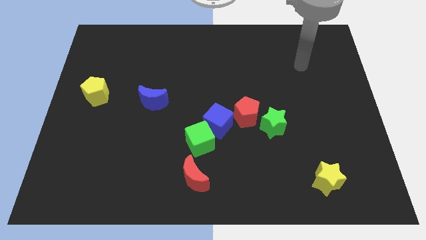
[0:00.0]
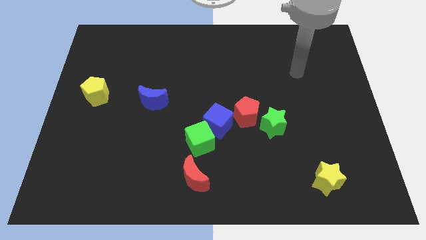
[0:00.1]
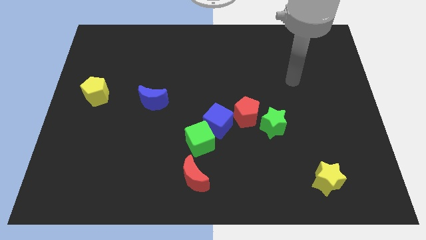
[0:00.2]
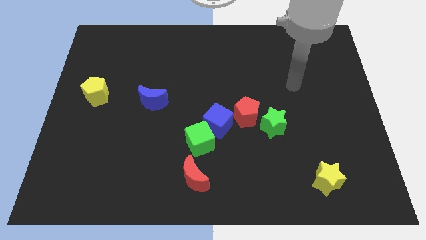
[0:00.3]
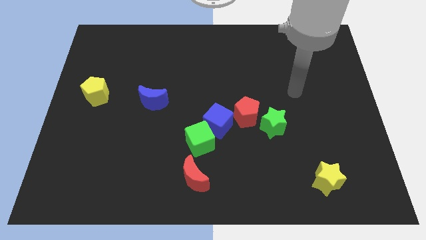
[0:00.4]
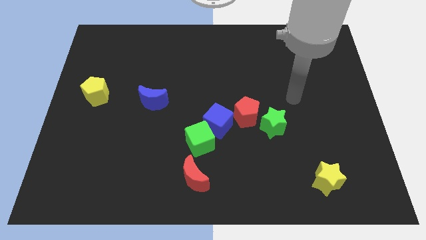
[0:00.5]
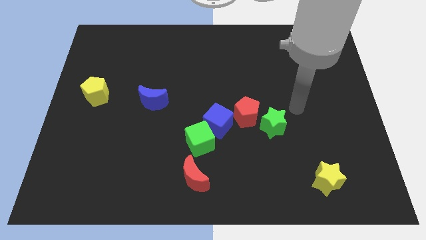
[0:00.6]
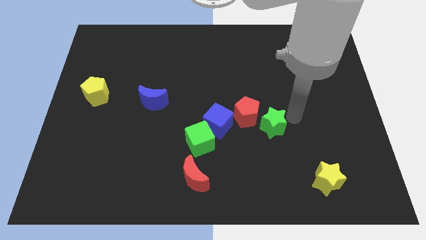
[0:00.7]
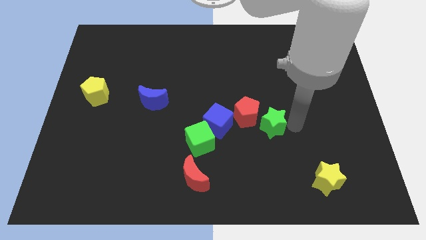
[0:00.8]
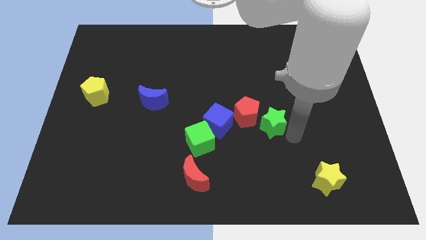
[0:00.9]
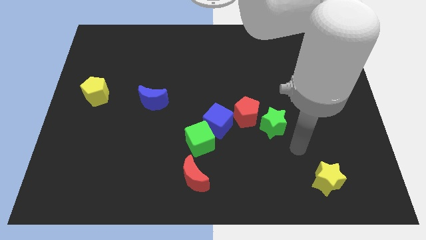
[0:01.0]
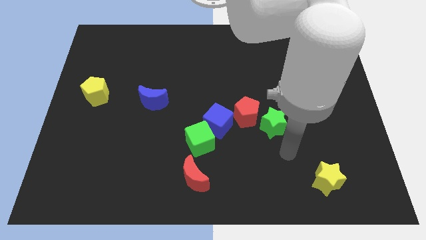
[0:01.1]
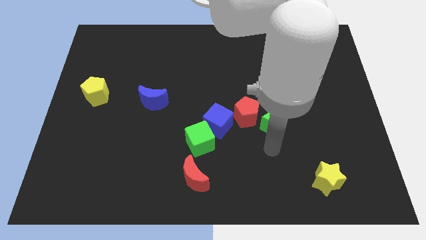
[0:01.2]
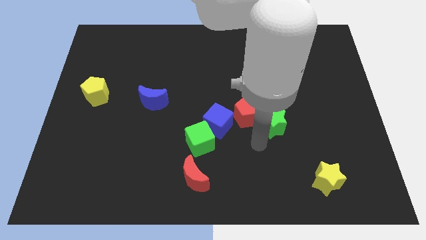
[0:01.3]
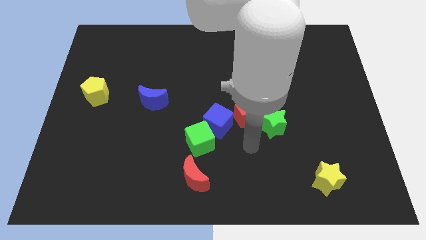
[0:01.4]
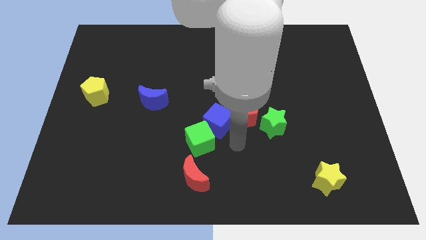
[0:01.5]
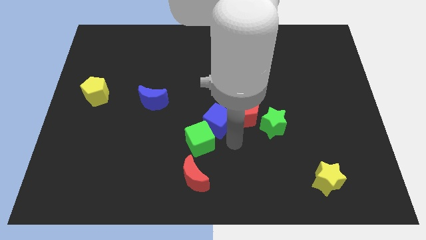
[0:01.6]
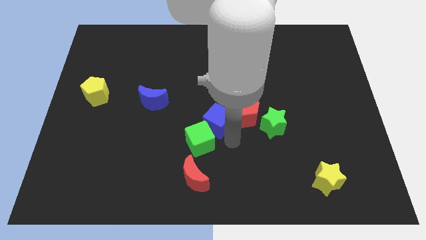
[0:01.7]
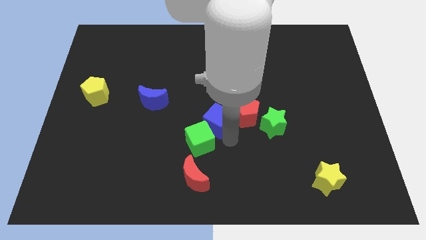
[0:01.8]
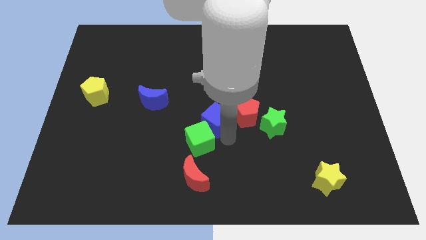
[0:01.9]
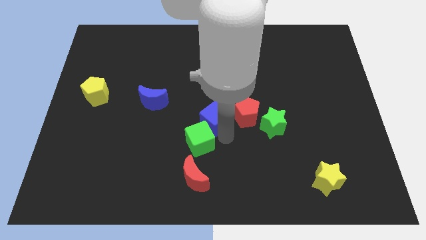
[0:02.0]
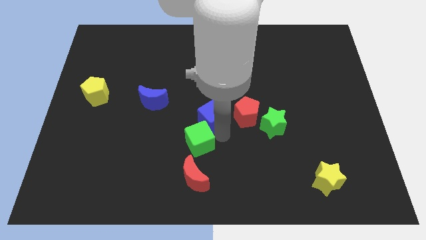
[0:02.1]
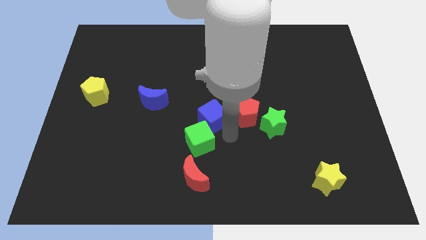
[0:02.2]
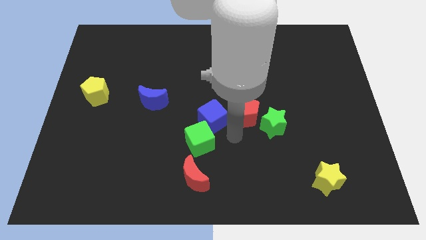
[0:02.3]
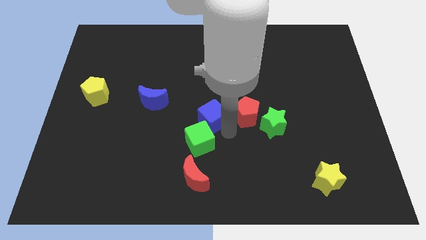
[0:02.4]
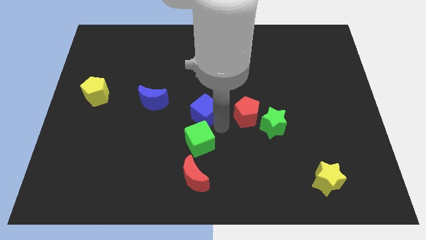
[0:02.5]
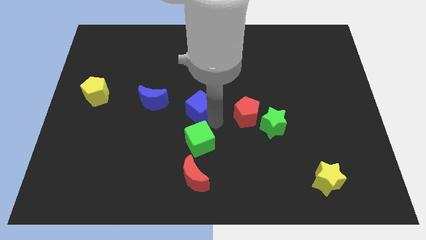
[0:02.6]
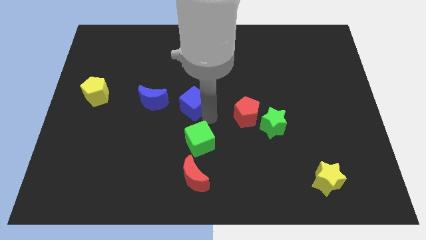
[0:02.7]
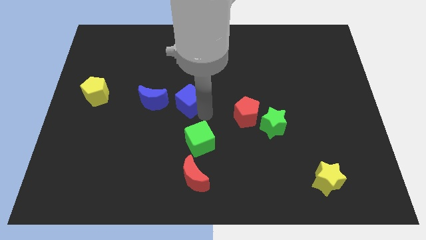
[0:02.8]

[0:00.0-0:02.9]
pull the blue cube apart from the green cube and red pentagon

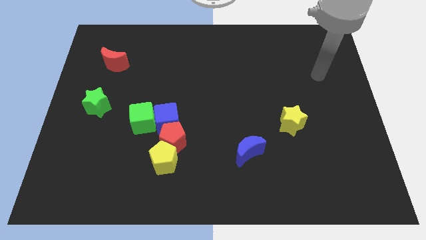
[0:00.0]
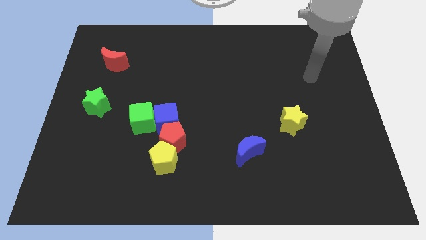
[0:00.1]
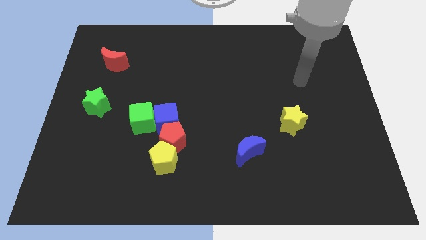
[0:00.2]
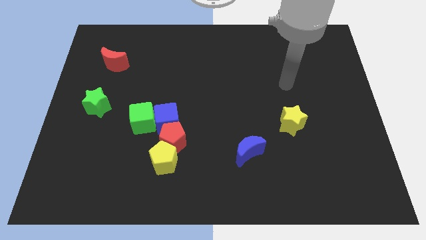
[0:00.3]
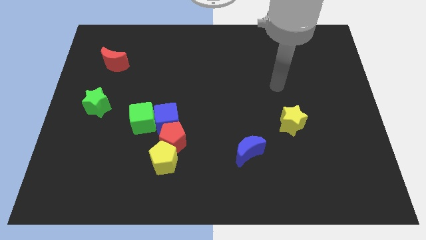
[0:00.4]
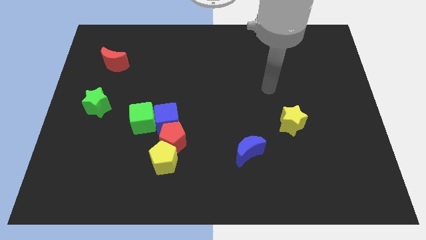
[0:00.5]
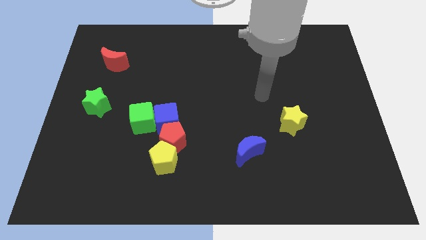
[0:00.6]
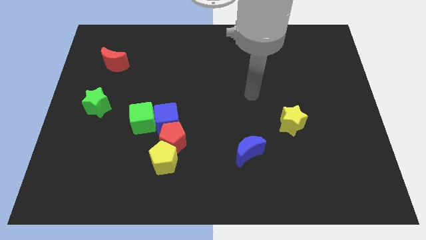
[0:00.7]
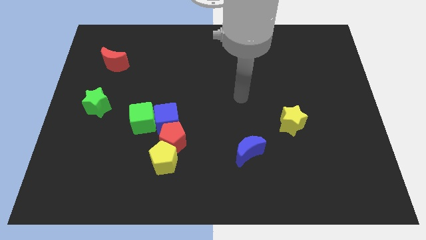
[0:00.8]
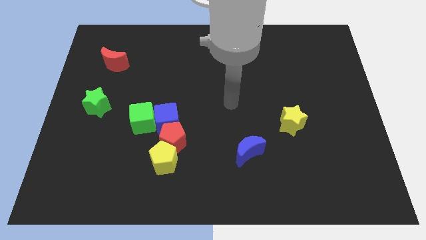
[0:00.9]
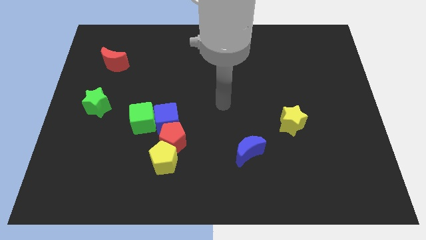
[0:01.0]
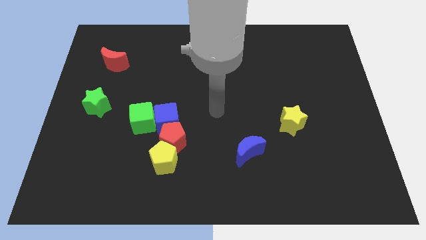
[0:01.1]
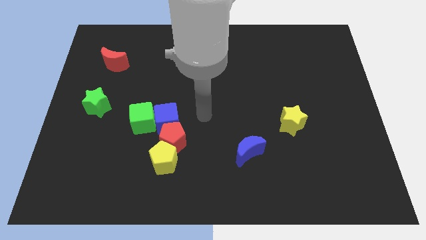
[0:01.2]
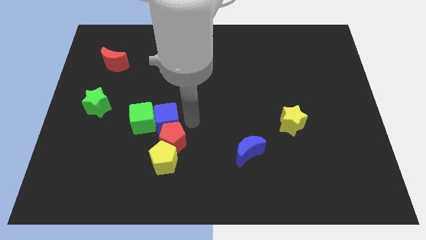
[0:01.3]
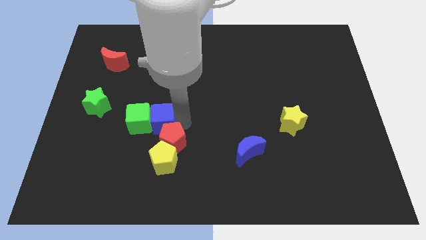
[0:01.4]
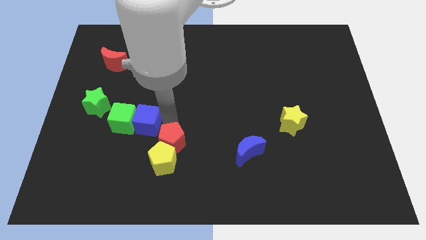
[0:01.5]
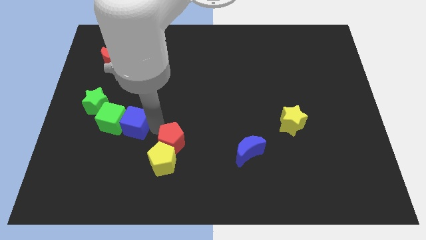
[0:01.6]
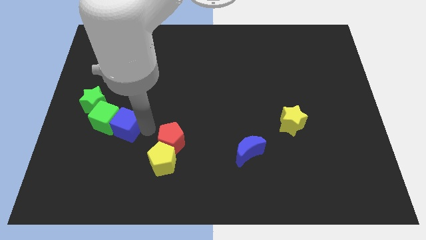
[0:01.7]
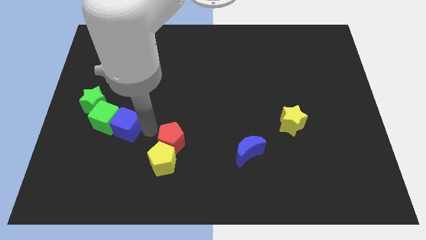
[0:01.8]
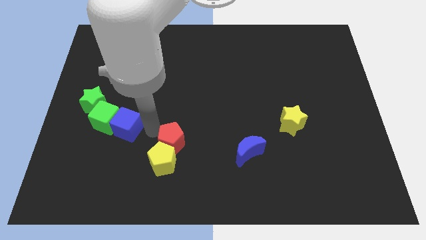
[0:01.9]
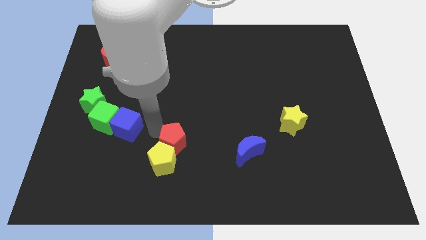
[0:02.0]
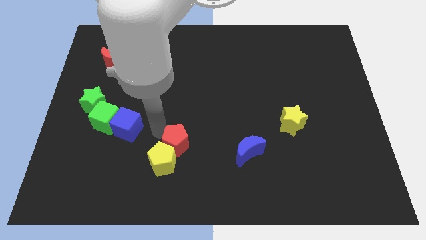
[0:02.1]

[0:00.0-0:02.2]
separate the red pentagon from the group of blocks

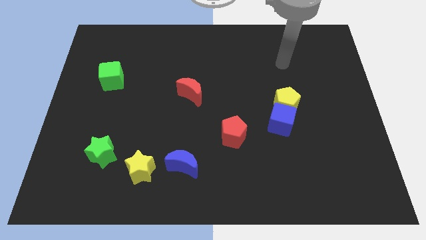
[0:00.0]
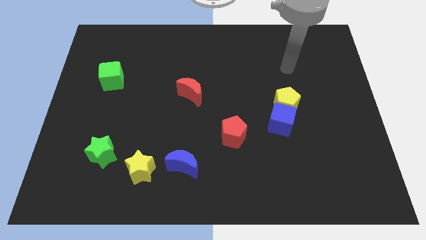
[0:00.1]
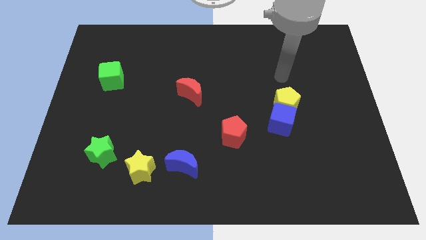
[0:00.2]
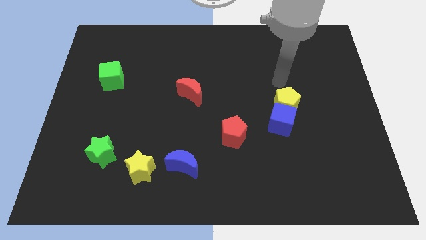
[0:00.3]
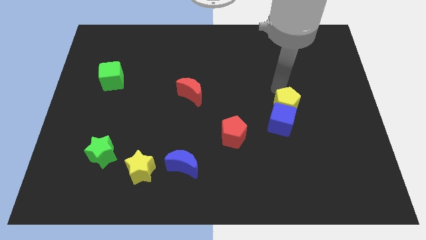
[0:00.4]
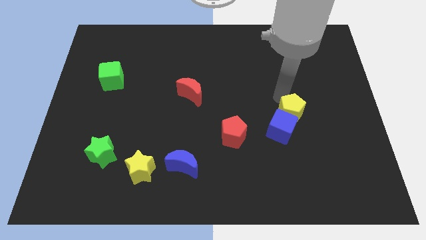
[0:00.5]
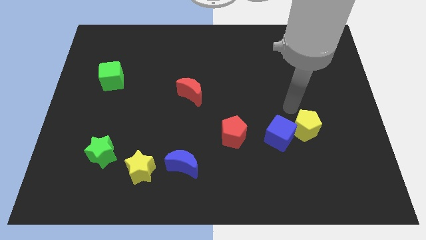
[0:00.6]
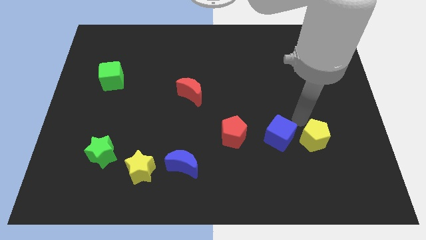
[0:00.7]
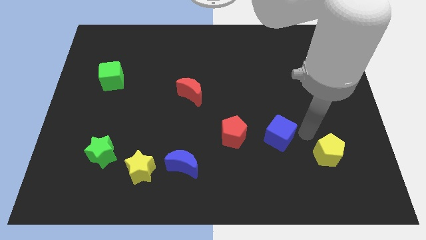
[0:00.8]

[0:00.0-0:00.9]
pull the blue cube apart from the yellow pentagon

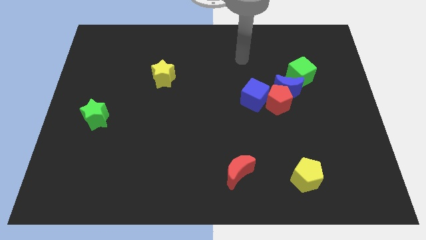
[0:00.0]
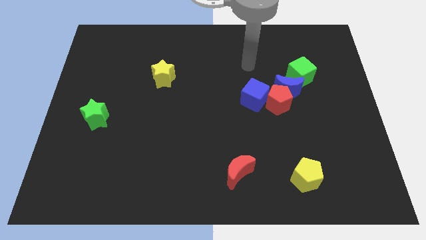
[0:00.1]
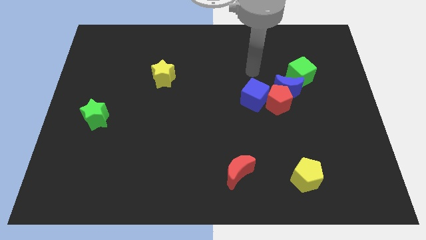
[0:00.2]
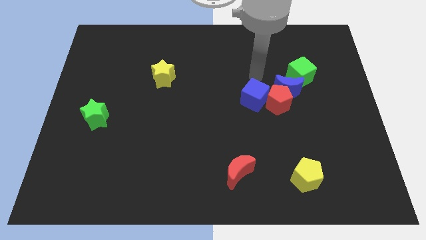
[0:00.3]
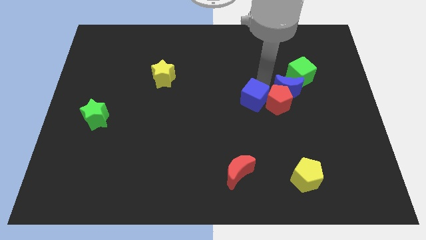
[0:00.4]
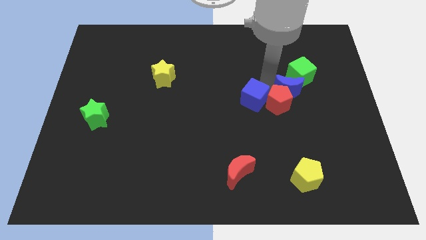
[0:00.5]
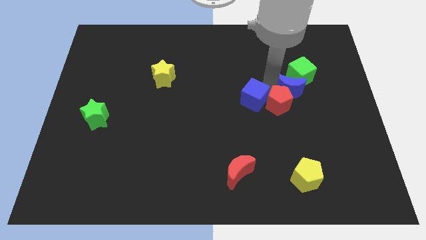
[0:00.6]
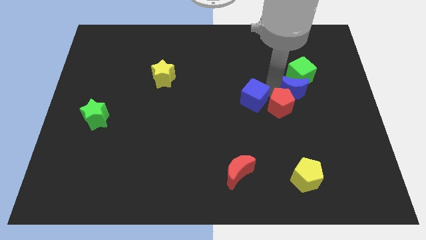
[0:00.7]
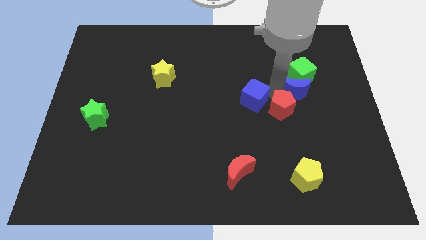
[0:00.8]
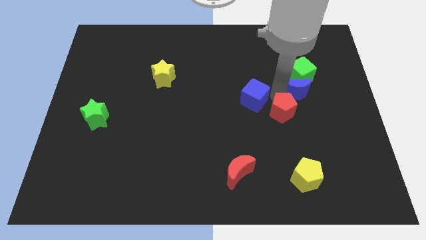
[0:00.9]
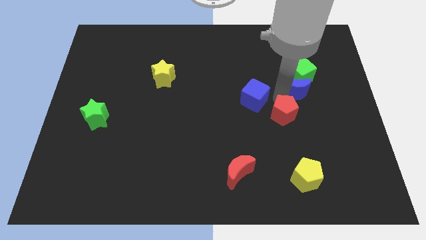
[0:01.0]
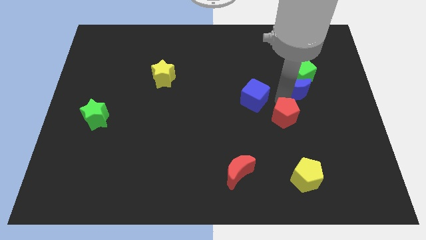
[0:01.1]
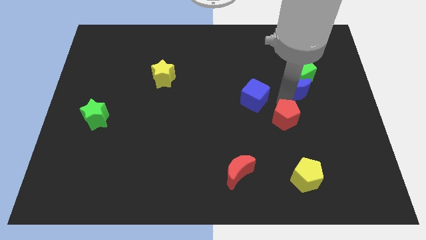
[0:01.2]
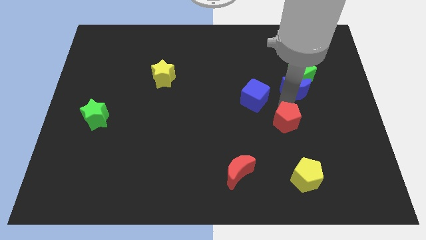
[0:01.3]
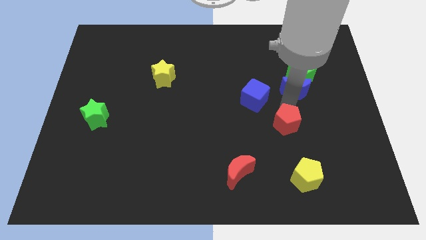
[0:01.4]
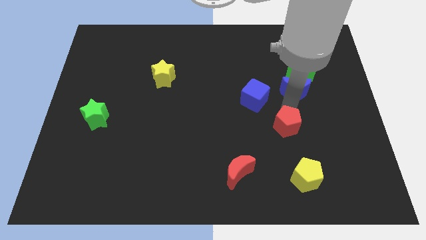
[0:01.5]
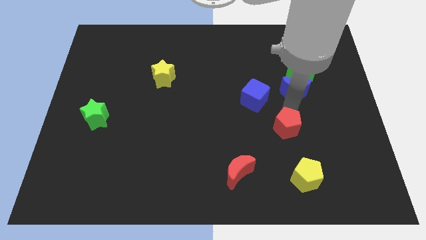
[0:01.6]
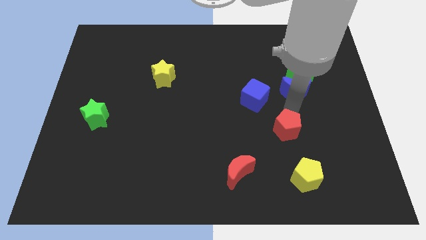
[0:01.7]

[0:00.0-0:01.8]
move the red pentagon away from the blue moon and blue cube

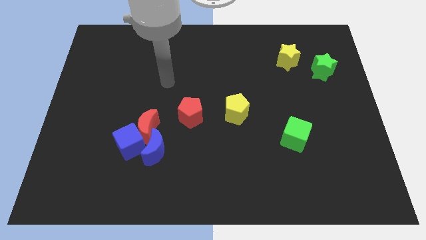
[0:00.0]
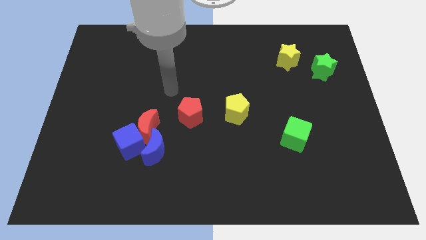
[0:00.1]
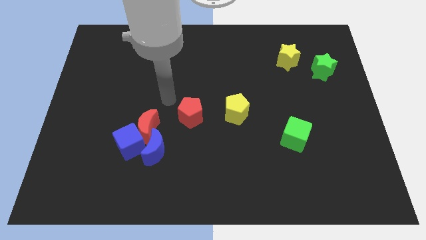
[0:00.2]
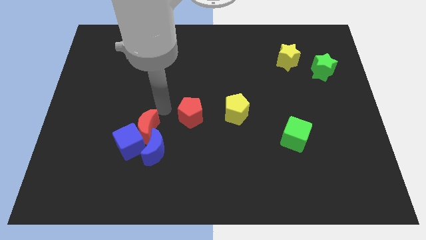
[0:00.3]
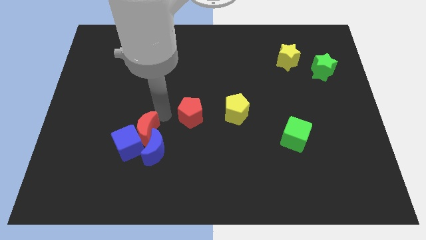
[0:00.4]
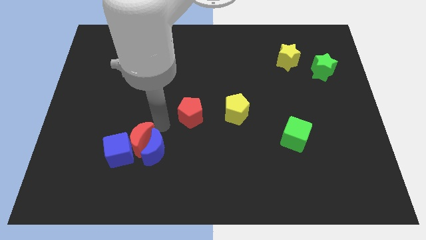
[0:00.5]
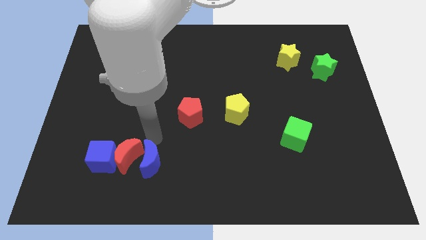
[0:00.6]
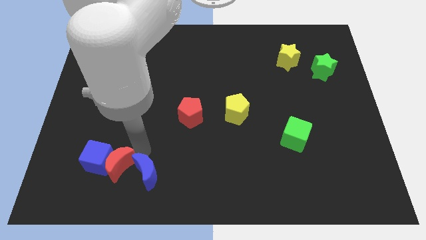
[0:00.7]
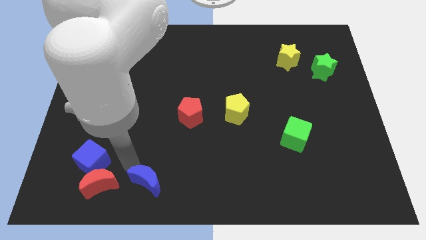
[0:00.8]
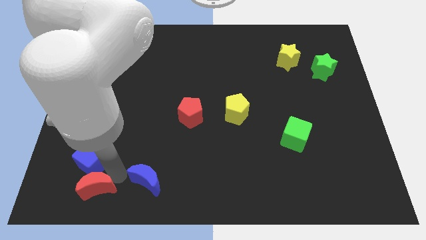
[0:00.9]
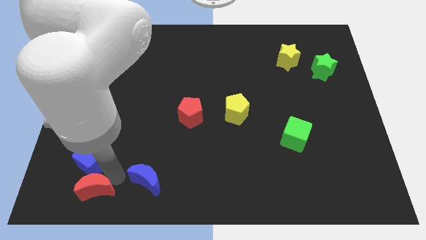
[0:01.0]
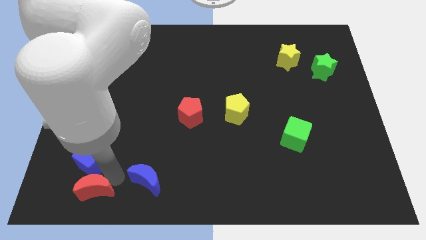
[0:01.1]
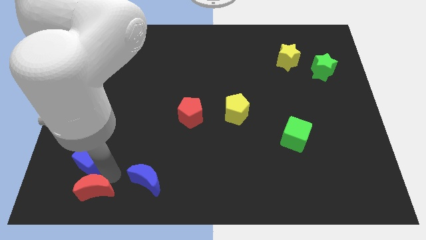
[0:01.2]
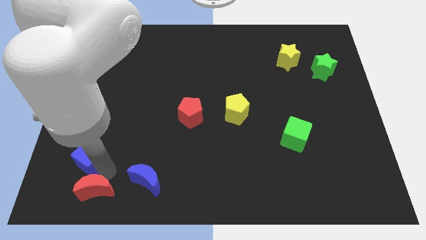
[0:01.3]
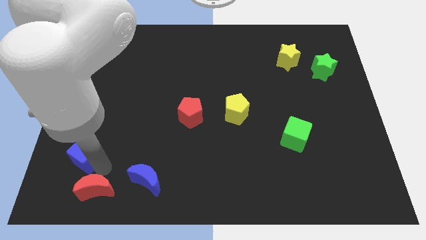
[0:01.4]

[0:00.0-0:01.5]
separate the blue cube from the red moon and blue moon
